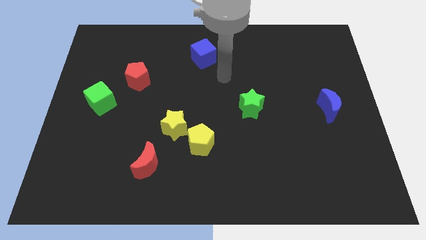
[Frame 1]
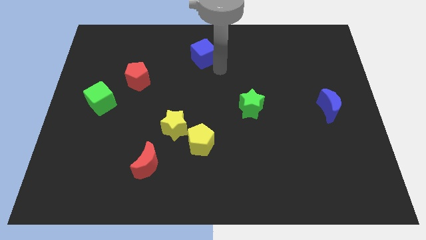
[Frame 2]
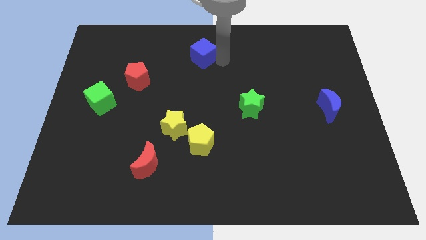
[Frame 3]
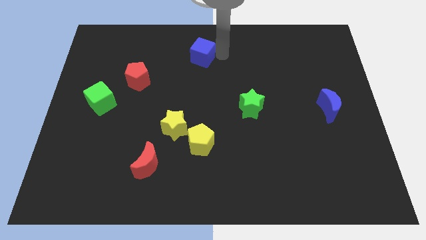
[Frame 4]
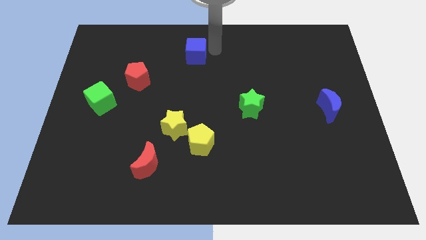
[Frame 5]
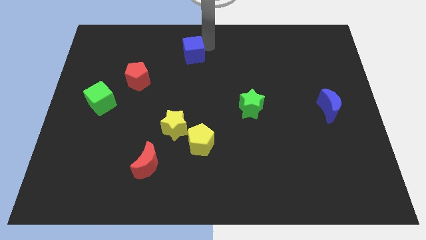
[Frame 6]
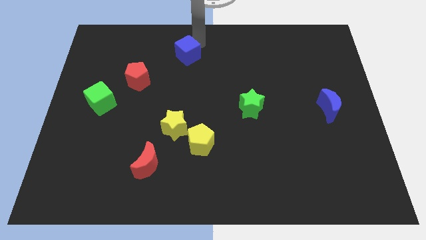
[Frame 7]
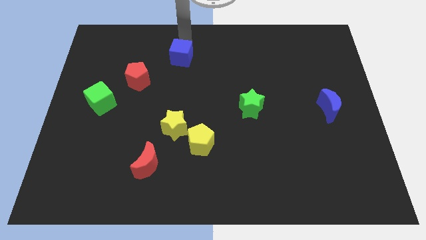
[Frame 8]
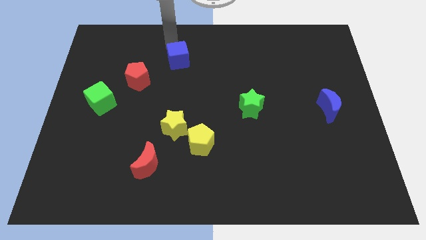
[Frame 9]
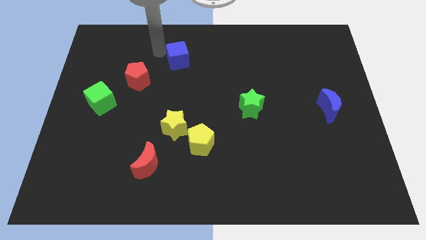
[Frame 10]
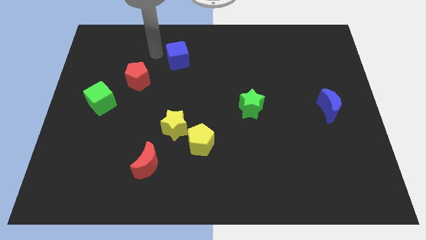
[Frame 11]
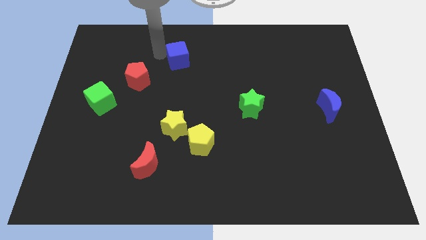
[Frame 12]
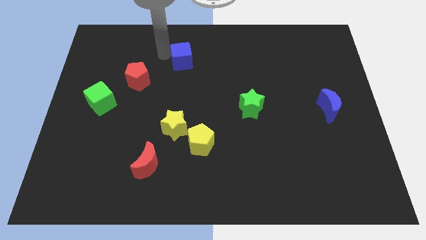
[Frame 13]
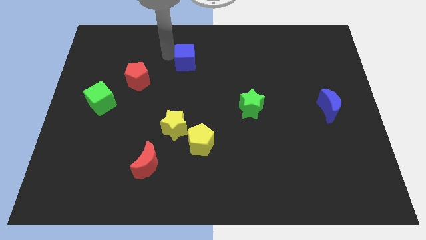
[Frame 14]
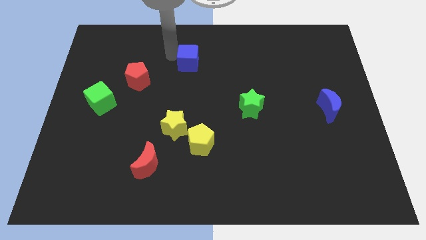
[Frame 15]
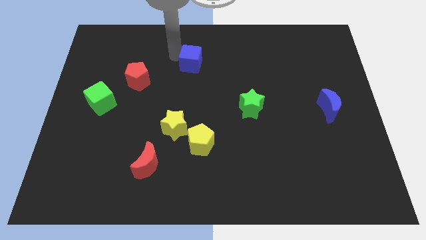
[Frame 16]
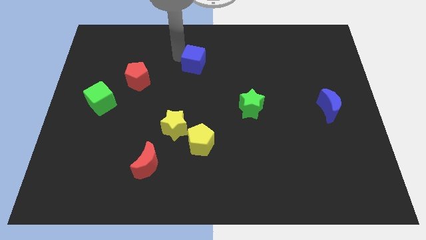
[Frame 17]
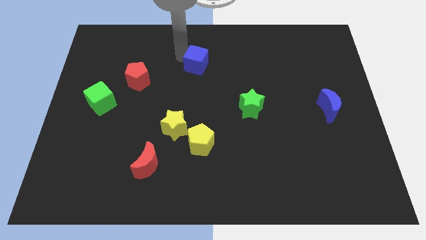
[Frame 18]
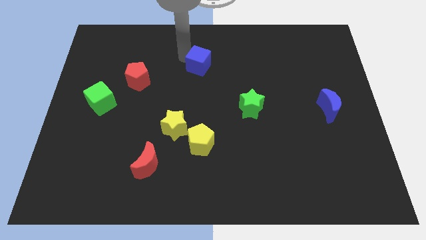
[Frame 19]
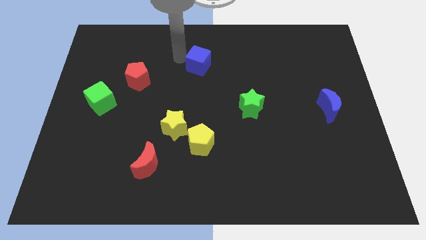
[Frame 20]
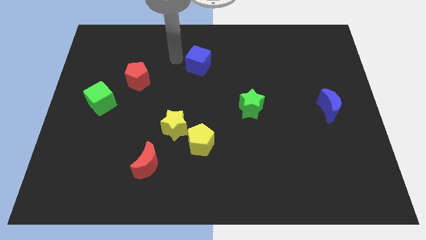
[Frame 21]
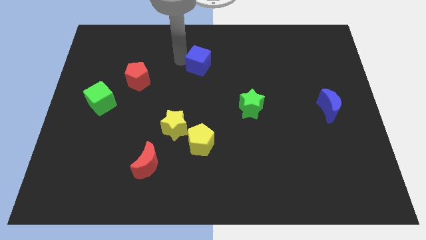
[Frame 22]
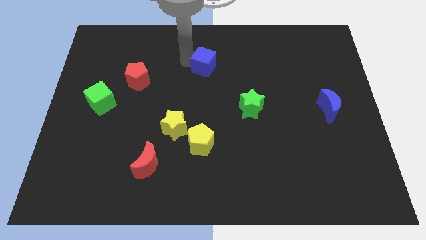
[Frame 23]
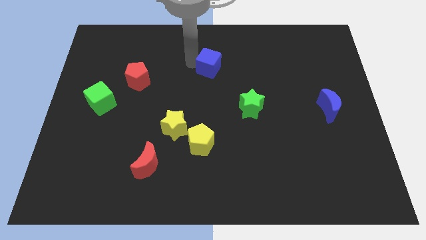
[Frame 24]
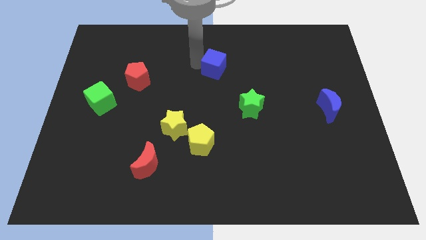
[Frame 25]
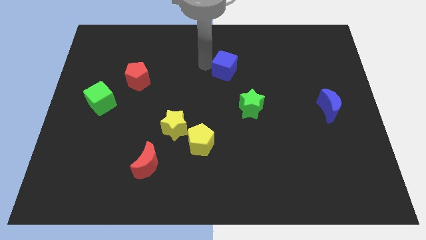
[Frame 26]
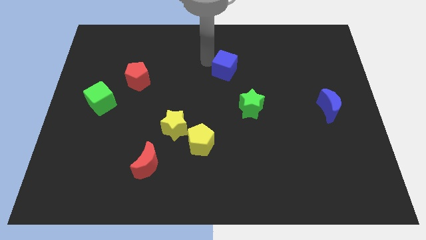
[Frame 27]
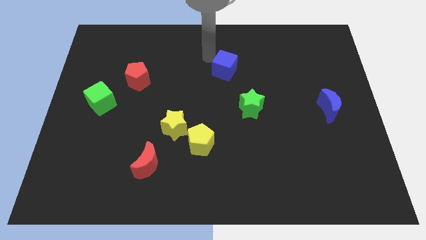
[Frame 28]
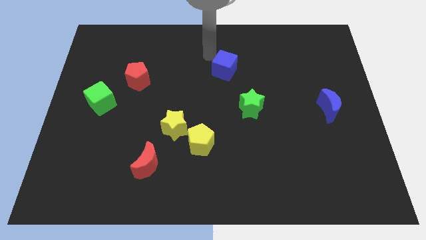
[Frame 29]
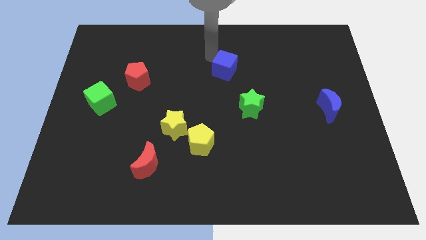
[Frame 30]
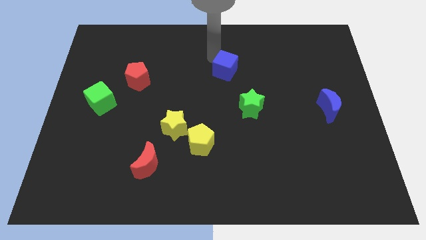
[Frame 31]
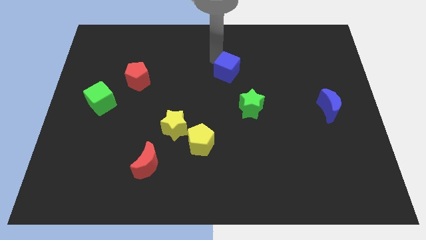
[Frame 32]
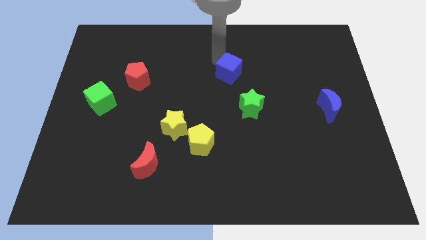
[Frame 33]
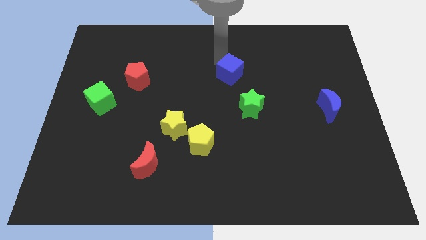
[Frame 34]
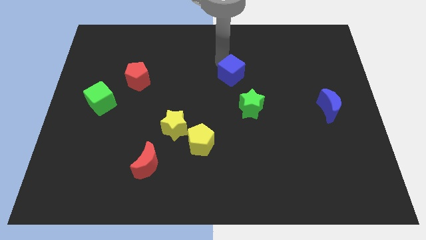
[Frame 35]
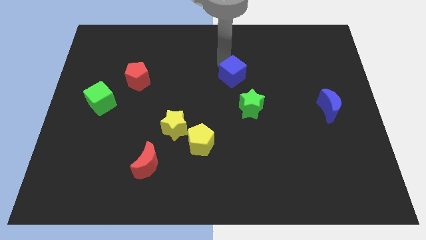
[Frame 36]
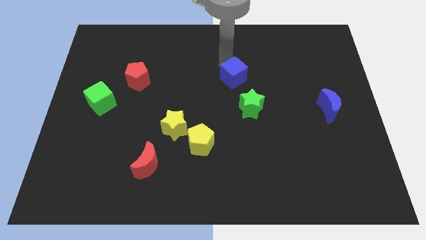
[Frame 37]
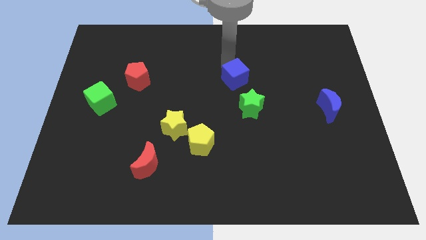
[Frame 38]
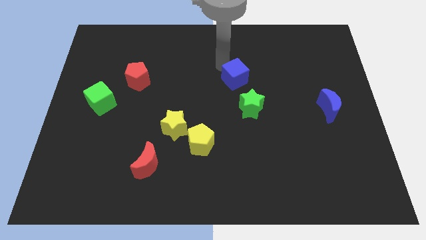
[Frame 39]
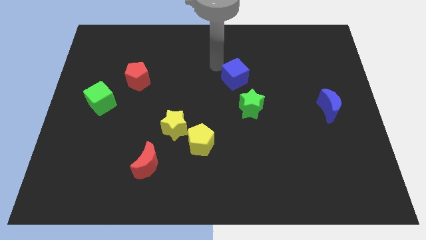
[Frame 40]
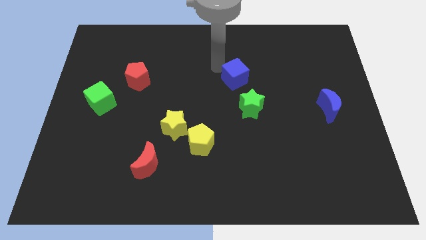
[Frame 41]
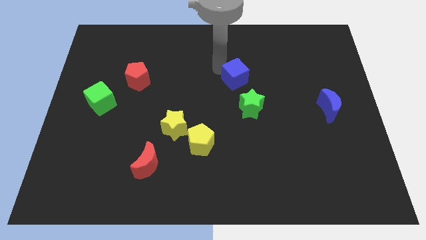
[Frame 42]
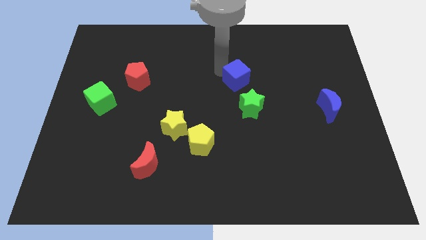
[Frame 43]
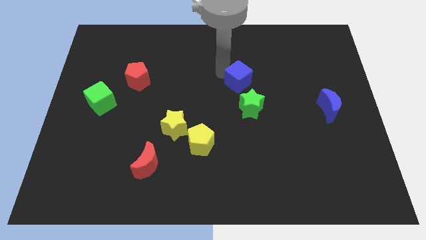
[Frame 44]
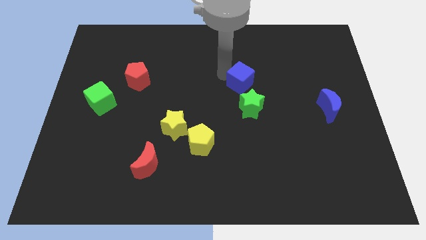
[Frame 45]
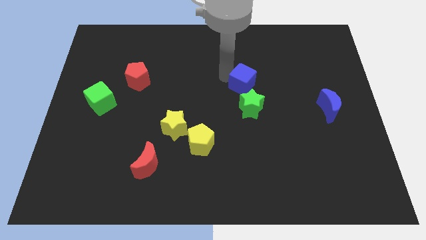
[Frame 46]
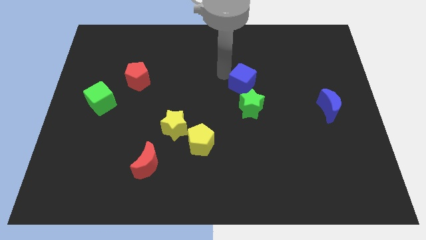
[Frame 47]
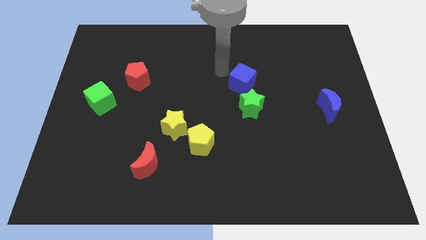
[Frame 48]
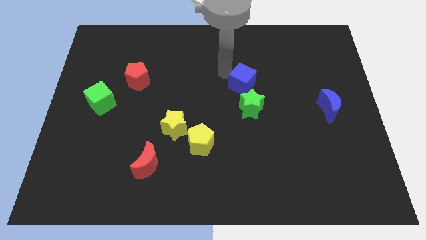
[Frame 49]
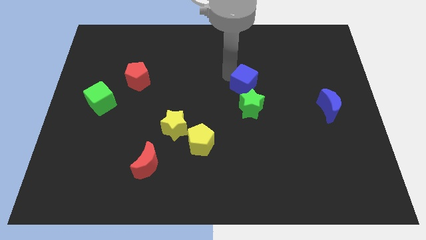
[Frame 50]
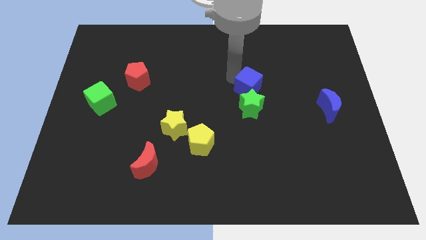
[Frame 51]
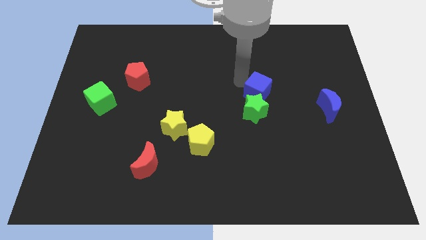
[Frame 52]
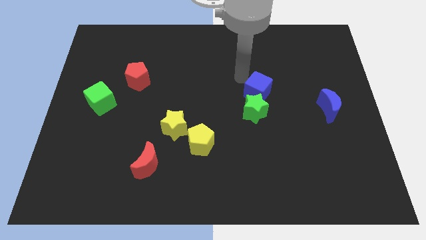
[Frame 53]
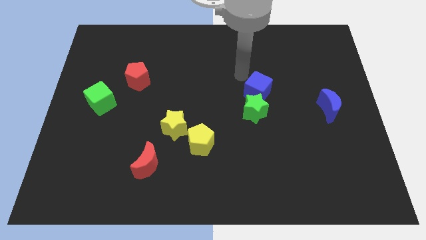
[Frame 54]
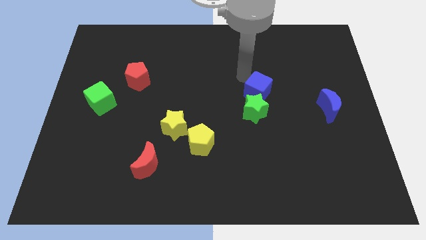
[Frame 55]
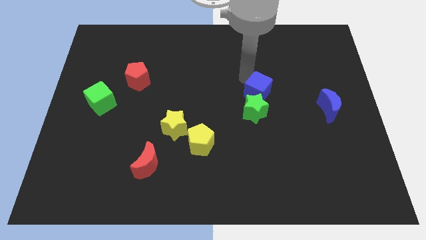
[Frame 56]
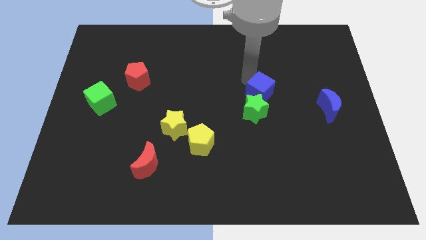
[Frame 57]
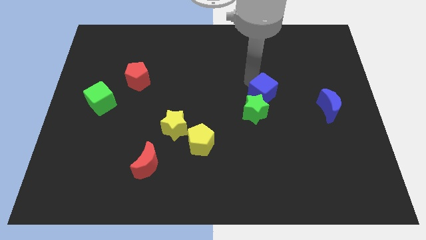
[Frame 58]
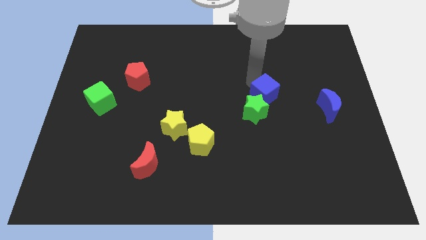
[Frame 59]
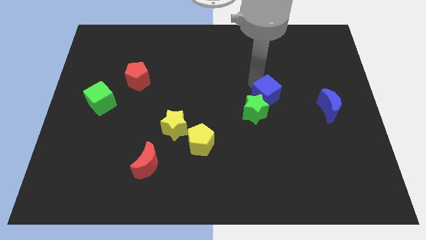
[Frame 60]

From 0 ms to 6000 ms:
push the blue cube diagonally downwards and to the right

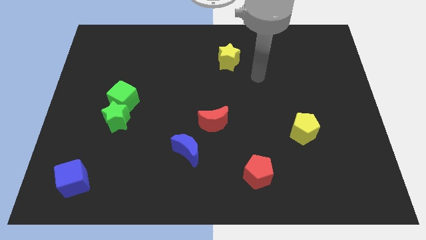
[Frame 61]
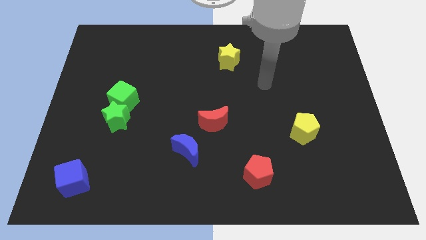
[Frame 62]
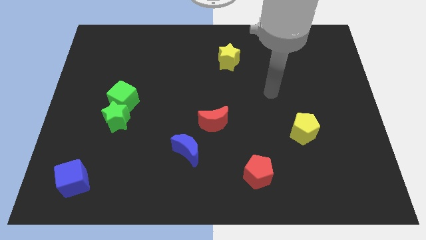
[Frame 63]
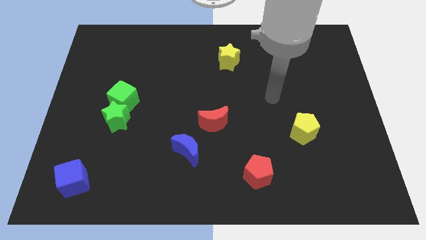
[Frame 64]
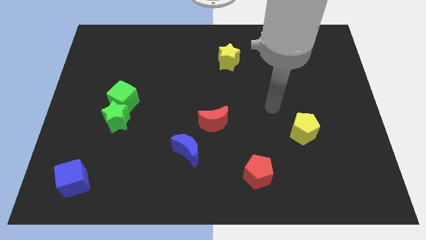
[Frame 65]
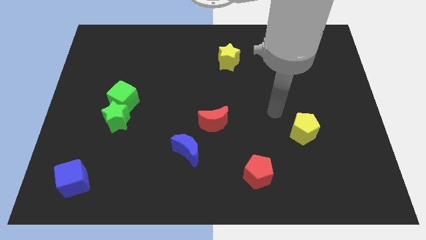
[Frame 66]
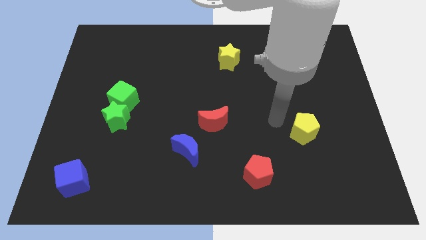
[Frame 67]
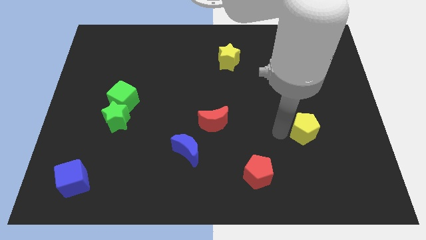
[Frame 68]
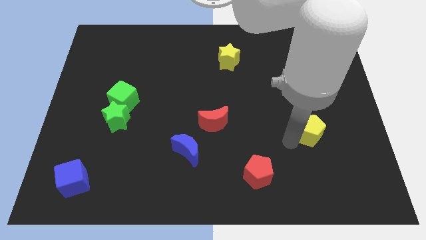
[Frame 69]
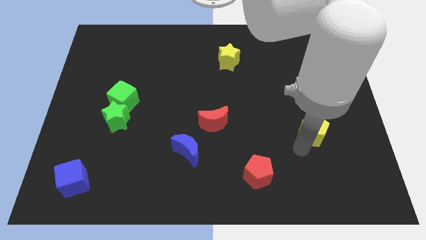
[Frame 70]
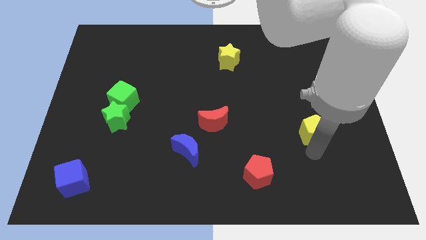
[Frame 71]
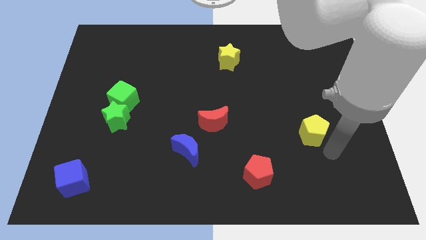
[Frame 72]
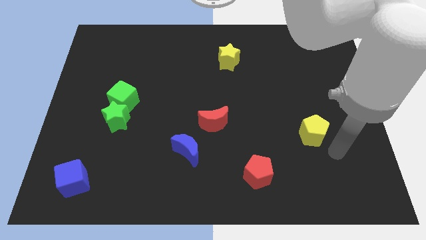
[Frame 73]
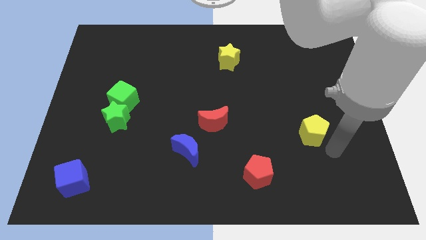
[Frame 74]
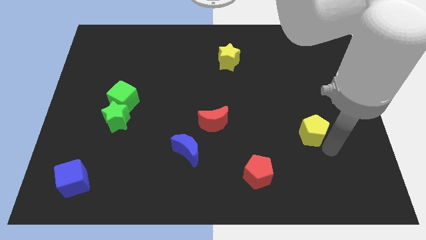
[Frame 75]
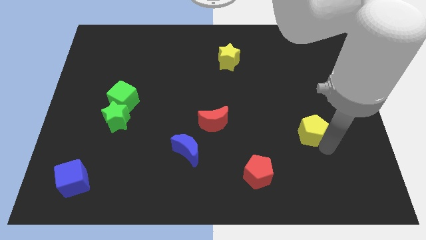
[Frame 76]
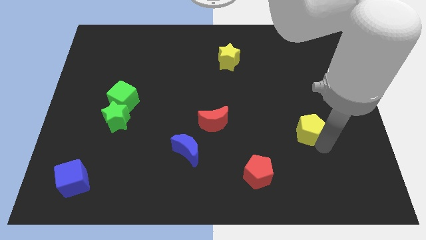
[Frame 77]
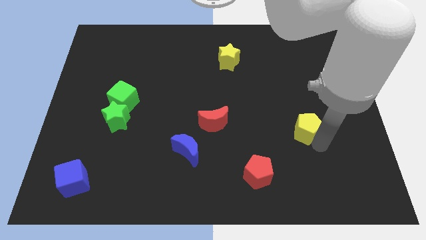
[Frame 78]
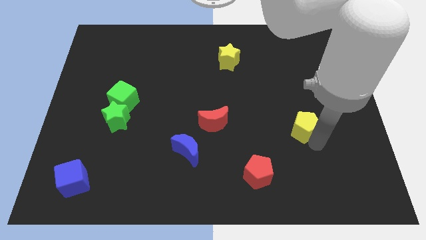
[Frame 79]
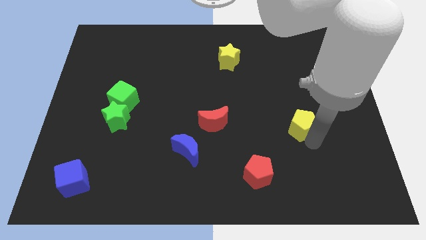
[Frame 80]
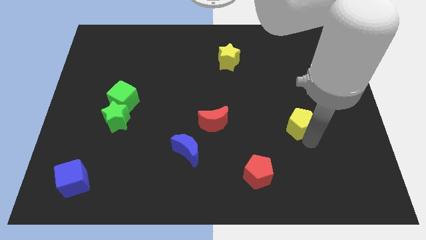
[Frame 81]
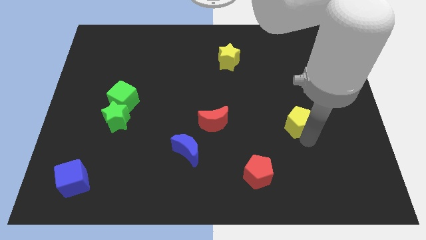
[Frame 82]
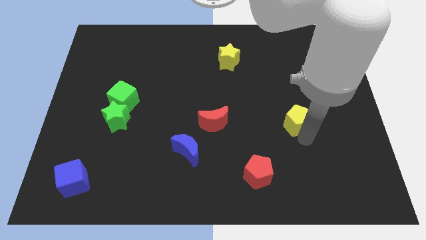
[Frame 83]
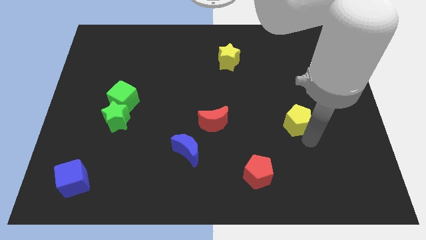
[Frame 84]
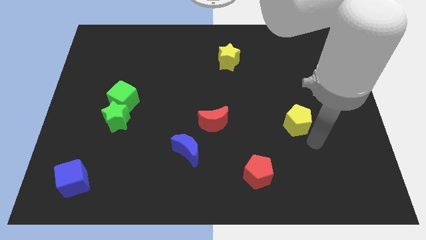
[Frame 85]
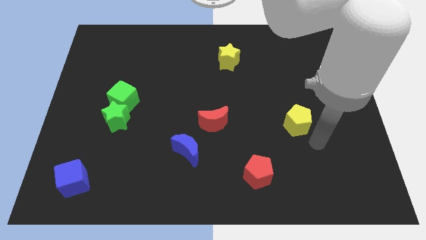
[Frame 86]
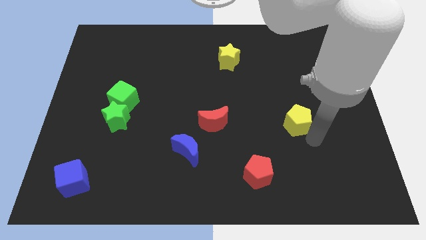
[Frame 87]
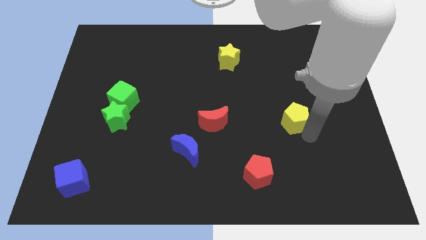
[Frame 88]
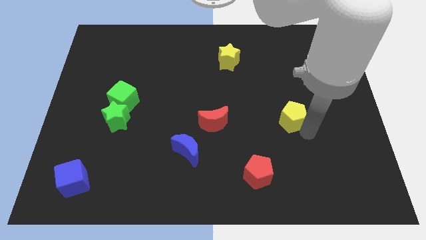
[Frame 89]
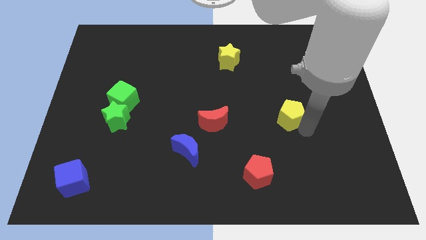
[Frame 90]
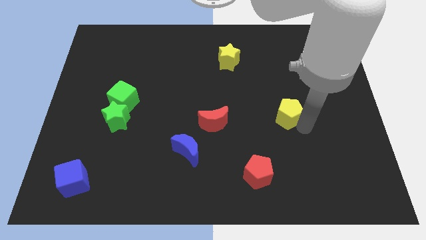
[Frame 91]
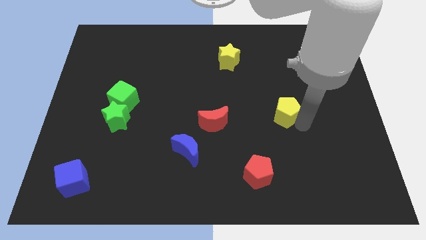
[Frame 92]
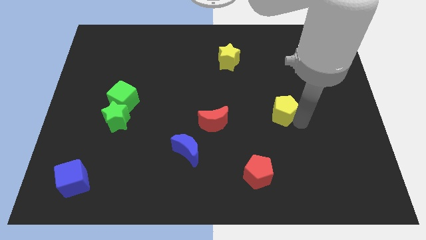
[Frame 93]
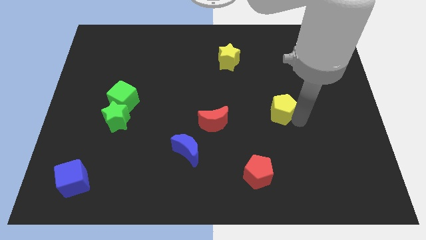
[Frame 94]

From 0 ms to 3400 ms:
slide the yellow pentagon diagonally upwards and left a little bit
